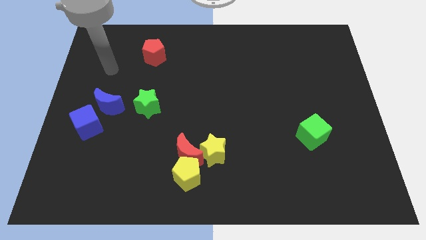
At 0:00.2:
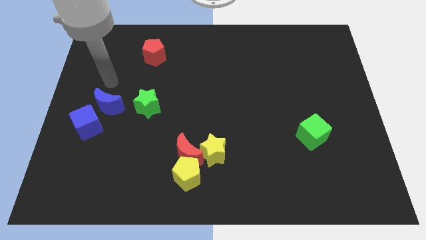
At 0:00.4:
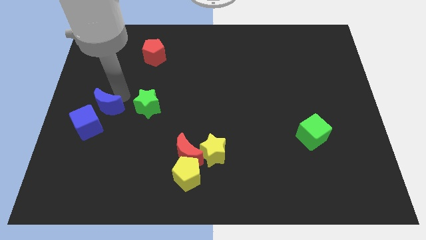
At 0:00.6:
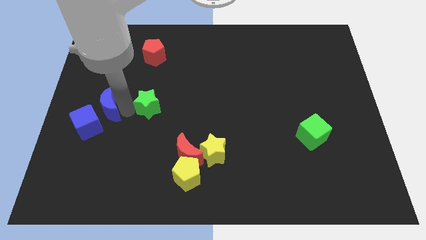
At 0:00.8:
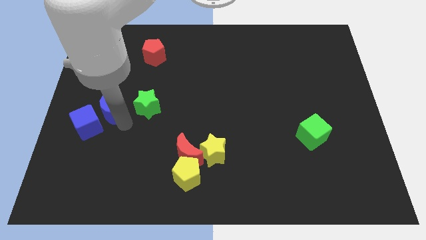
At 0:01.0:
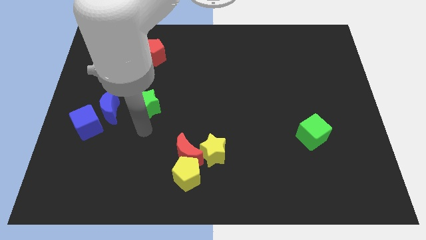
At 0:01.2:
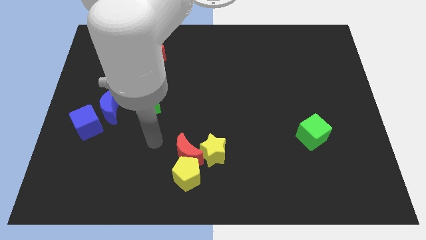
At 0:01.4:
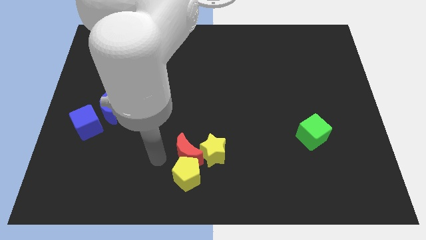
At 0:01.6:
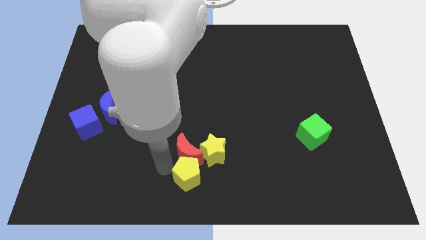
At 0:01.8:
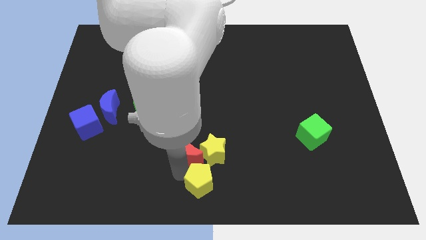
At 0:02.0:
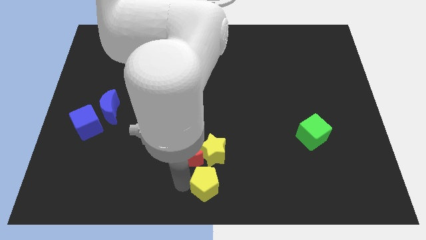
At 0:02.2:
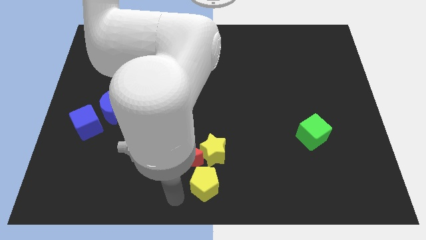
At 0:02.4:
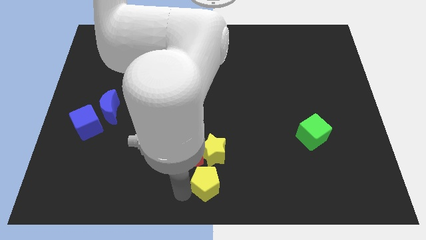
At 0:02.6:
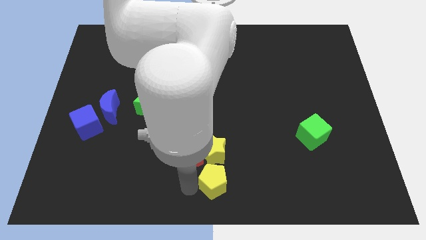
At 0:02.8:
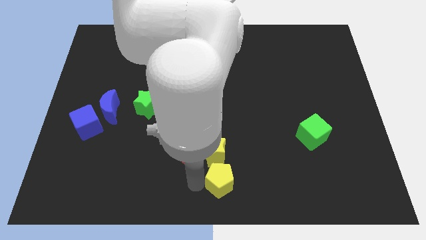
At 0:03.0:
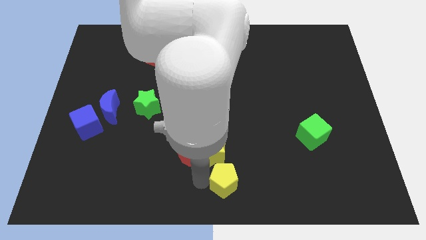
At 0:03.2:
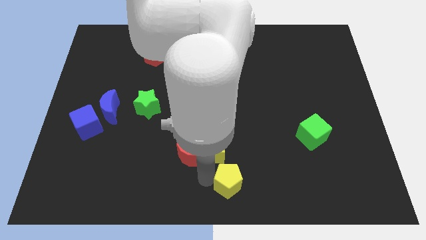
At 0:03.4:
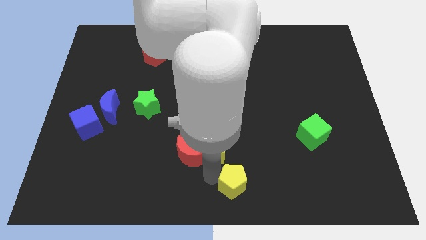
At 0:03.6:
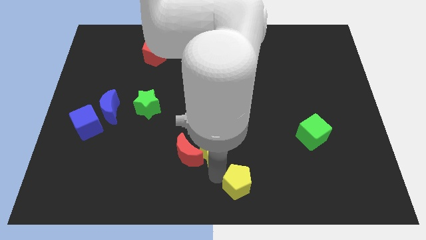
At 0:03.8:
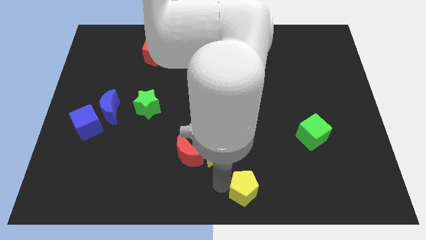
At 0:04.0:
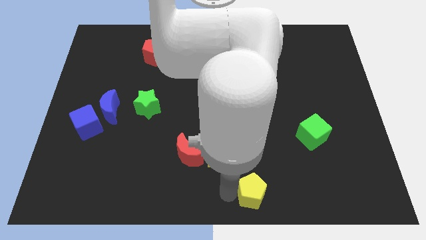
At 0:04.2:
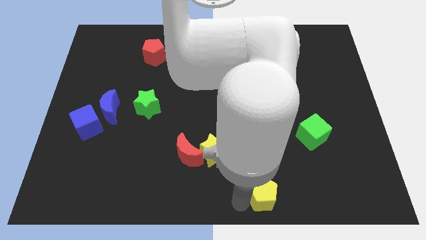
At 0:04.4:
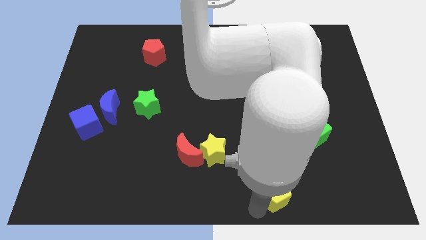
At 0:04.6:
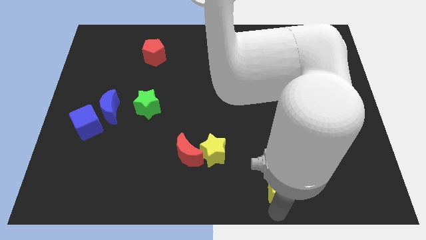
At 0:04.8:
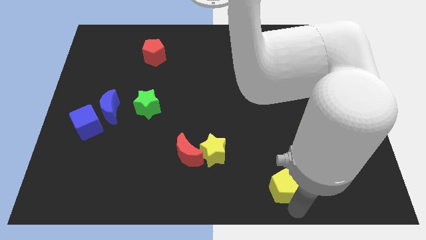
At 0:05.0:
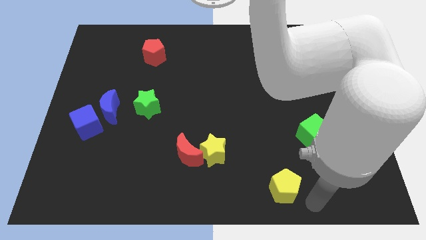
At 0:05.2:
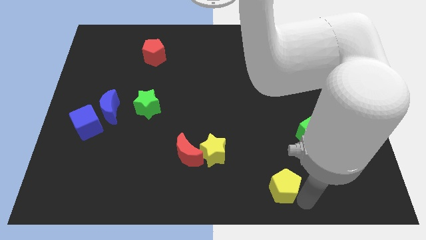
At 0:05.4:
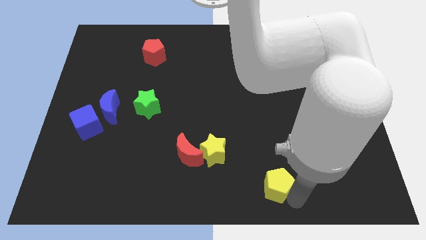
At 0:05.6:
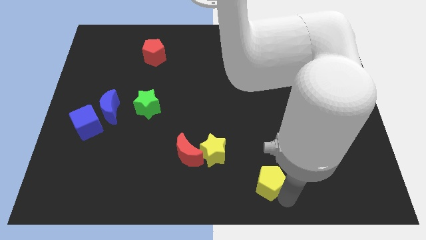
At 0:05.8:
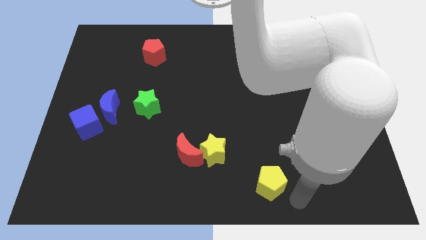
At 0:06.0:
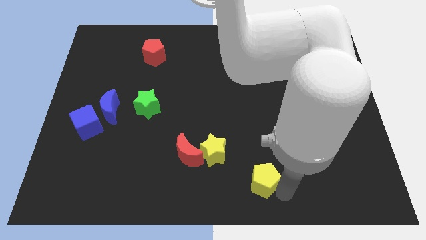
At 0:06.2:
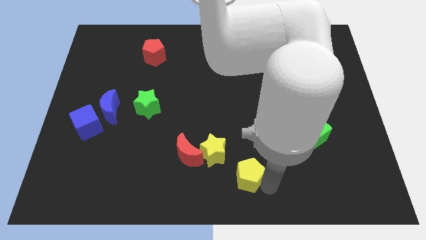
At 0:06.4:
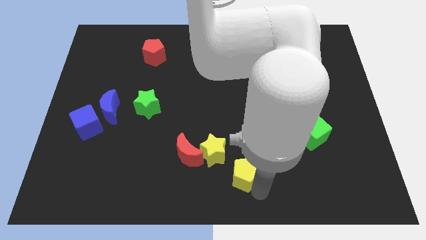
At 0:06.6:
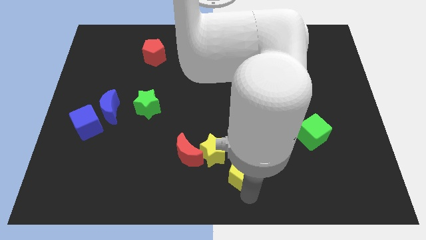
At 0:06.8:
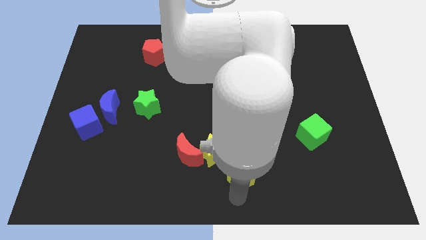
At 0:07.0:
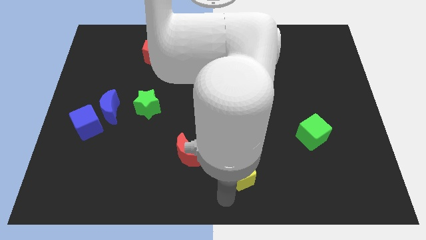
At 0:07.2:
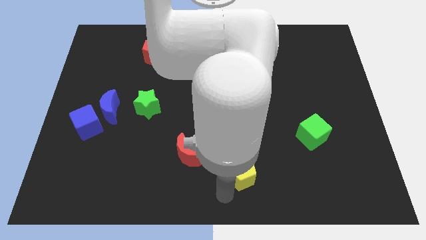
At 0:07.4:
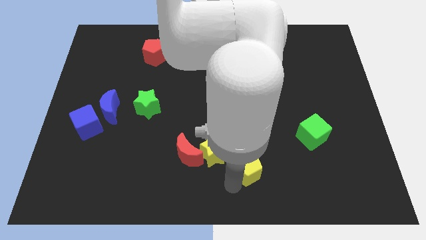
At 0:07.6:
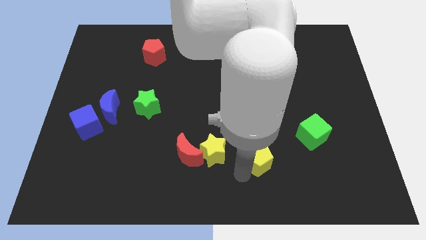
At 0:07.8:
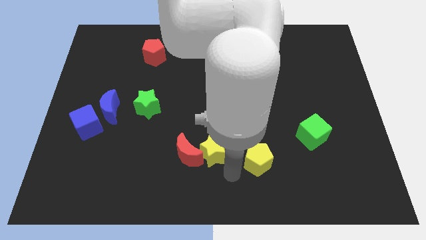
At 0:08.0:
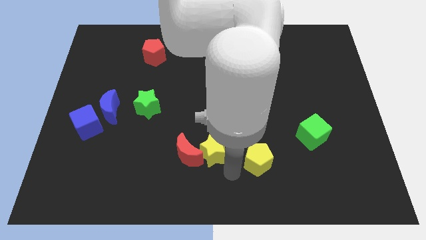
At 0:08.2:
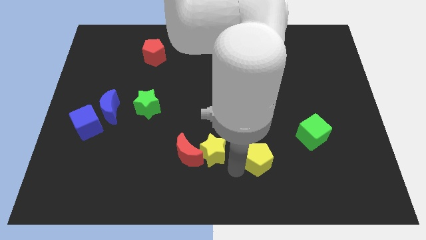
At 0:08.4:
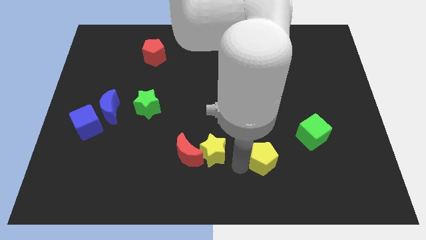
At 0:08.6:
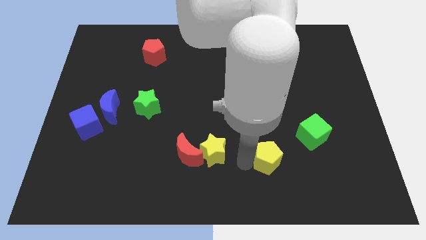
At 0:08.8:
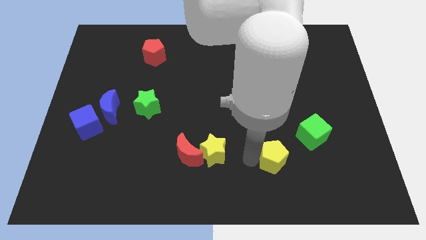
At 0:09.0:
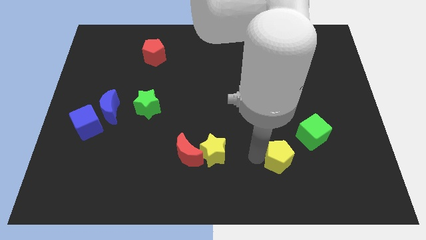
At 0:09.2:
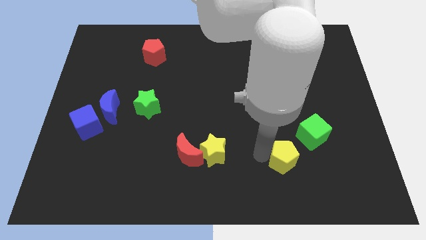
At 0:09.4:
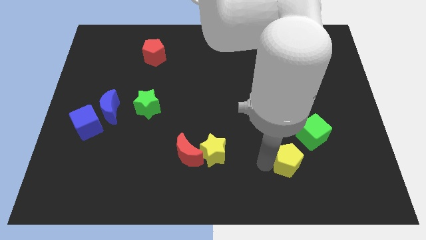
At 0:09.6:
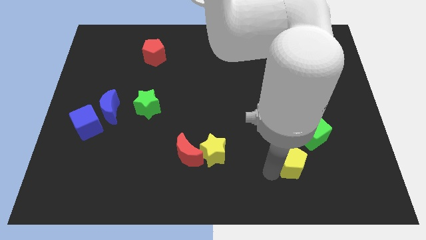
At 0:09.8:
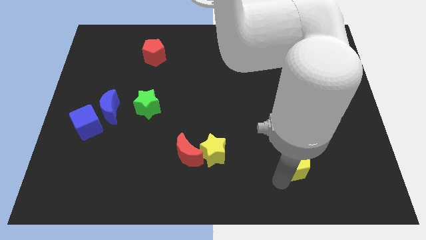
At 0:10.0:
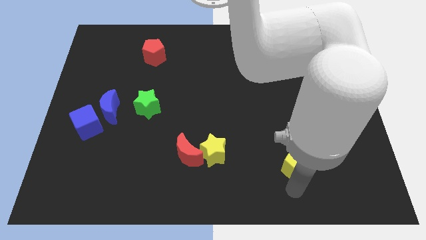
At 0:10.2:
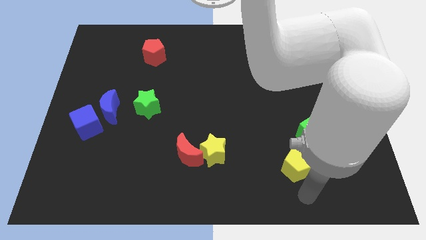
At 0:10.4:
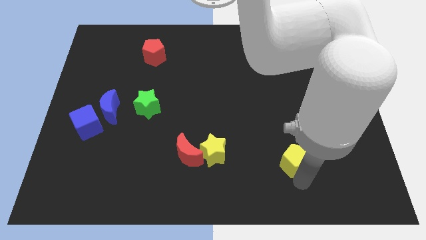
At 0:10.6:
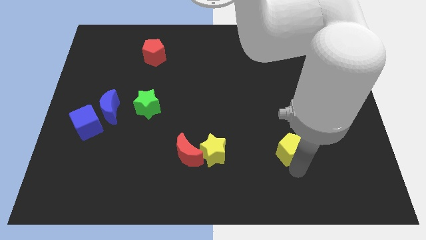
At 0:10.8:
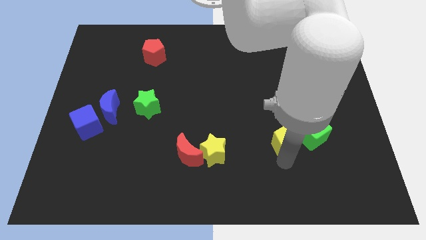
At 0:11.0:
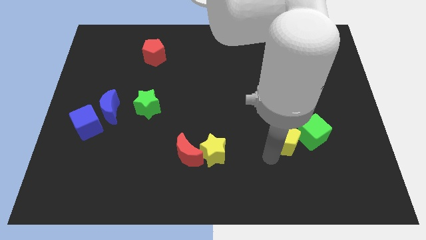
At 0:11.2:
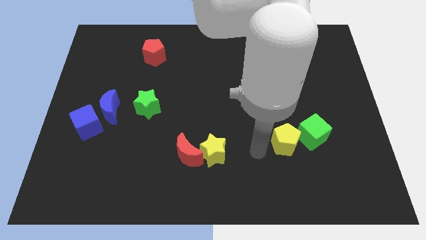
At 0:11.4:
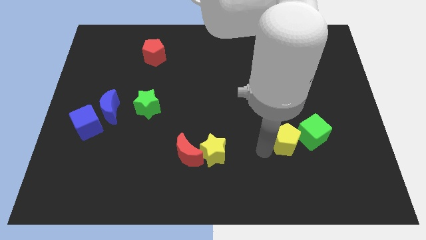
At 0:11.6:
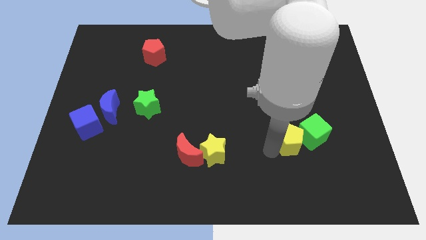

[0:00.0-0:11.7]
move the yellow pentagon next to the green cube

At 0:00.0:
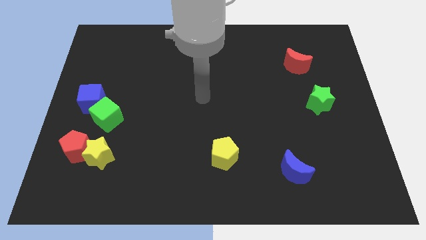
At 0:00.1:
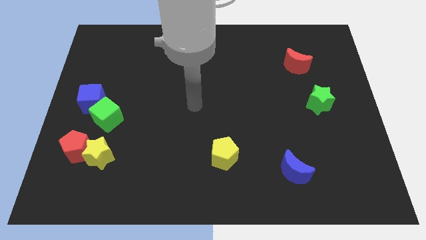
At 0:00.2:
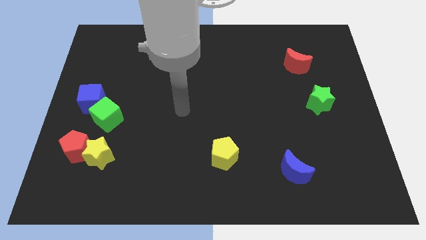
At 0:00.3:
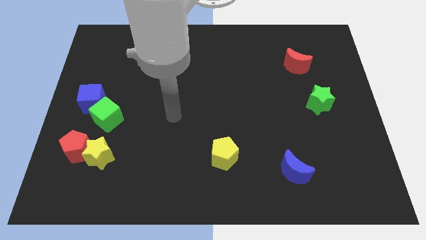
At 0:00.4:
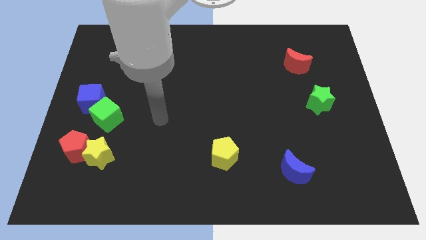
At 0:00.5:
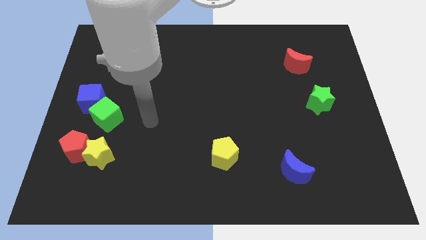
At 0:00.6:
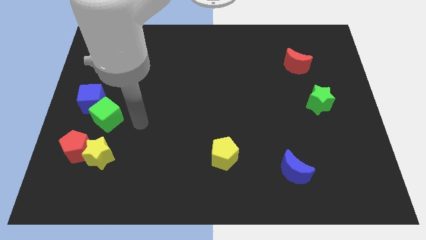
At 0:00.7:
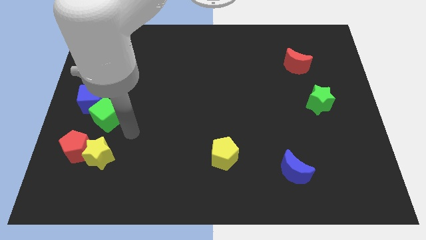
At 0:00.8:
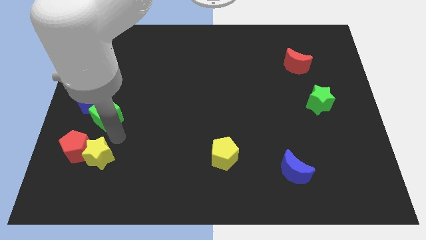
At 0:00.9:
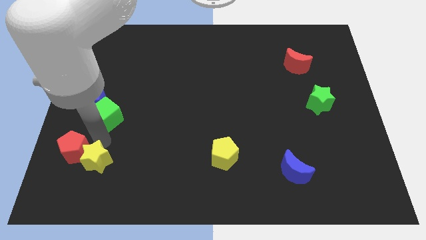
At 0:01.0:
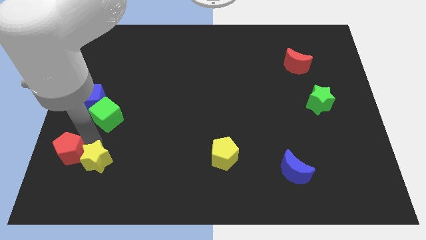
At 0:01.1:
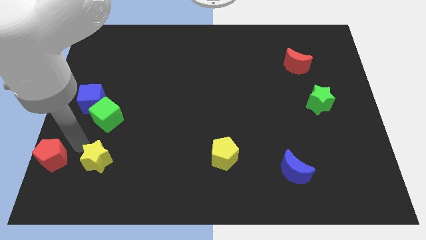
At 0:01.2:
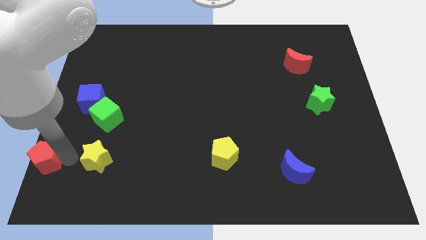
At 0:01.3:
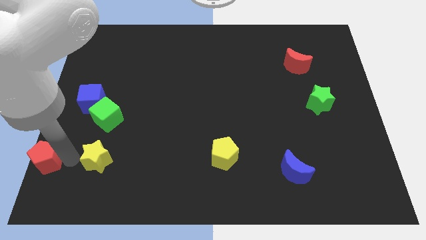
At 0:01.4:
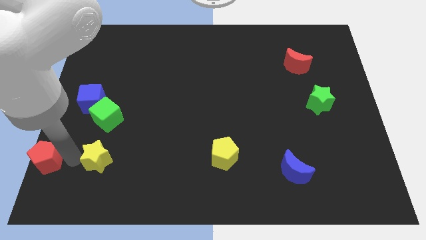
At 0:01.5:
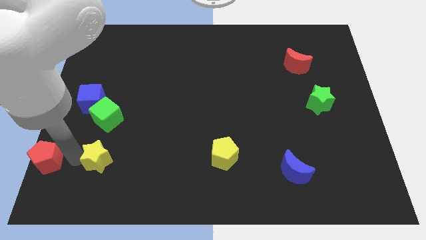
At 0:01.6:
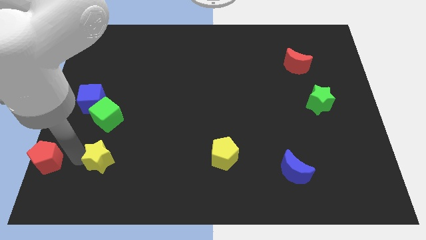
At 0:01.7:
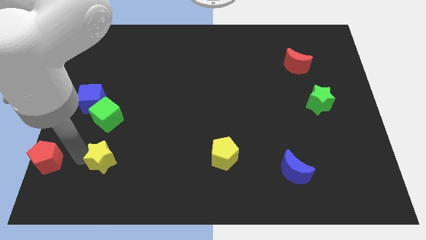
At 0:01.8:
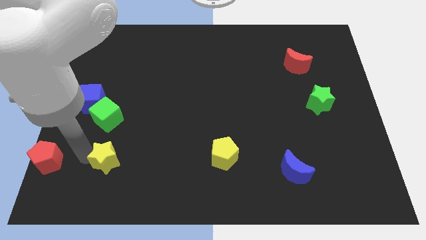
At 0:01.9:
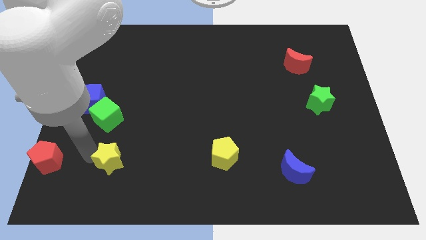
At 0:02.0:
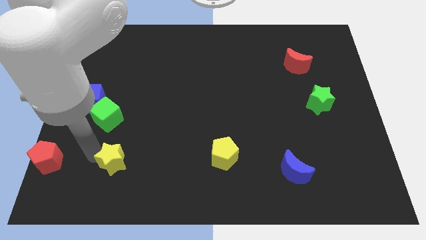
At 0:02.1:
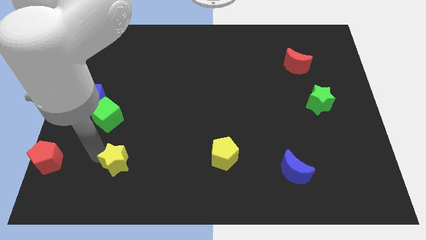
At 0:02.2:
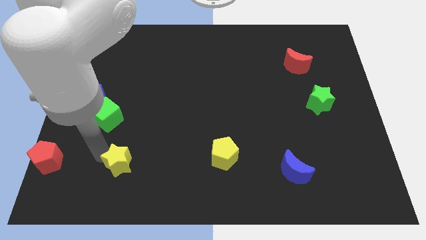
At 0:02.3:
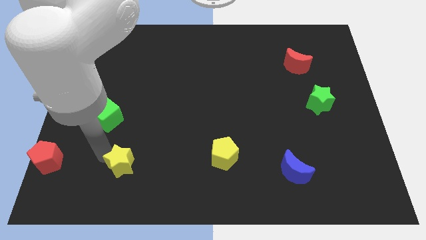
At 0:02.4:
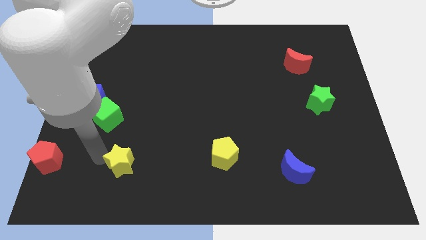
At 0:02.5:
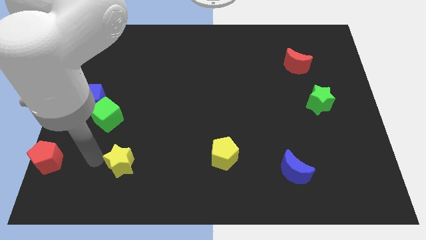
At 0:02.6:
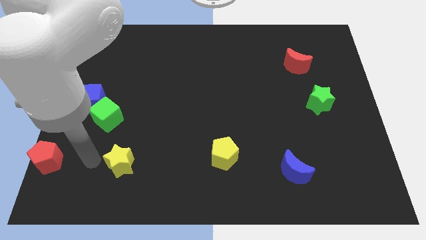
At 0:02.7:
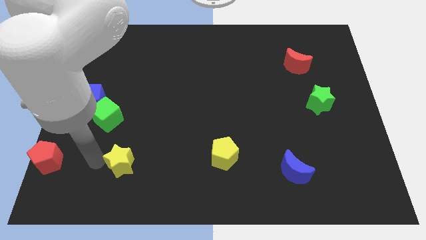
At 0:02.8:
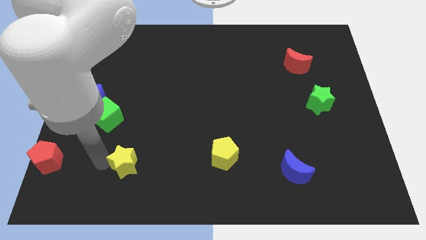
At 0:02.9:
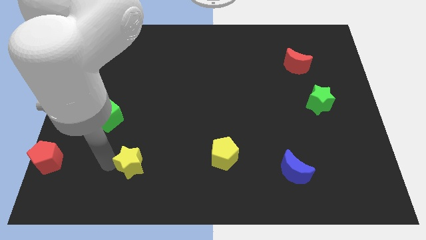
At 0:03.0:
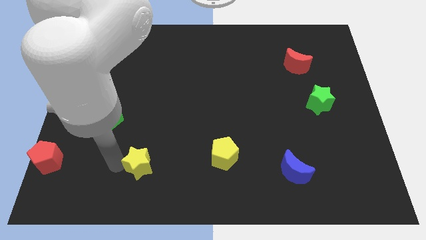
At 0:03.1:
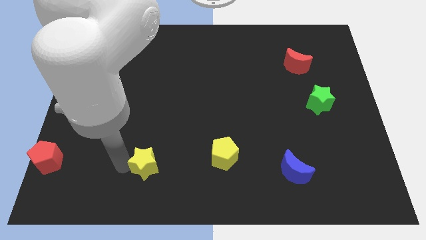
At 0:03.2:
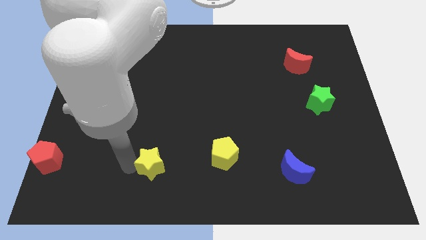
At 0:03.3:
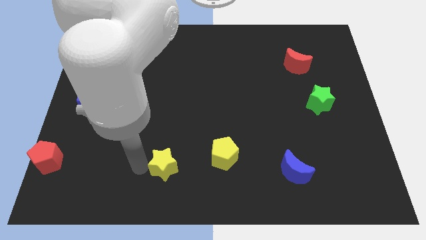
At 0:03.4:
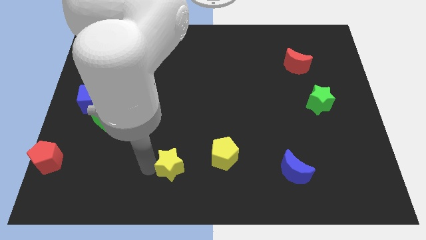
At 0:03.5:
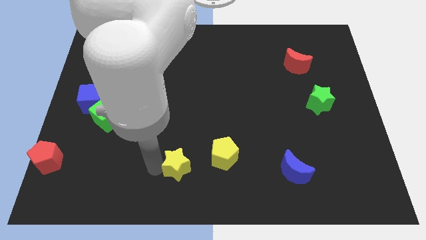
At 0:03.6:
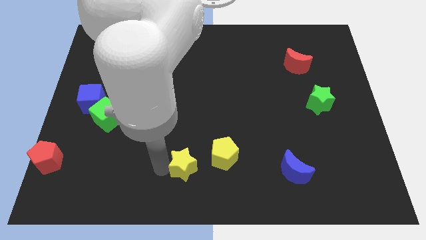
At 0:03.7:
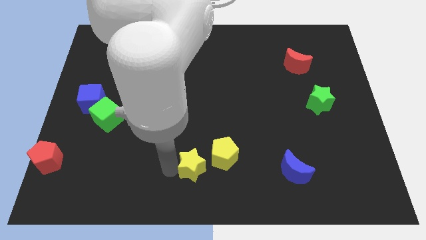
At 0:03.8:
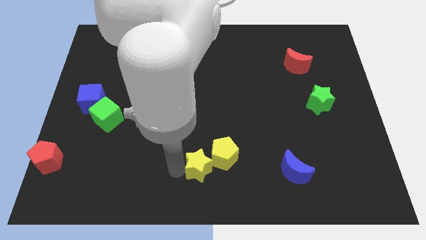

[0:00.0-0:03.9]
move the yellow star next to the yellow pentagon
